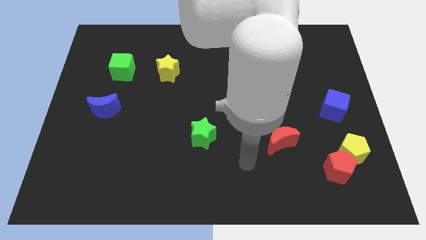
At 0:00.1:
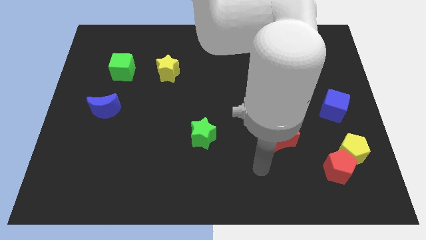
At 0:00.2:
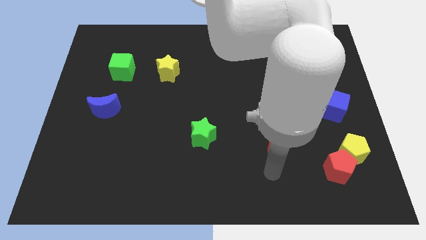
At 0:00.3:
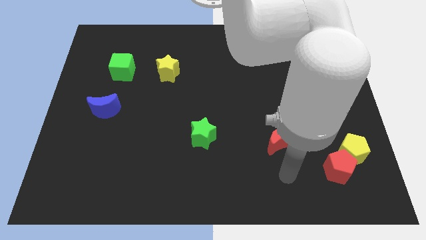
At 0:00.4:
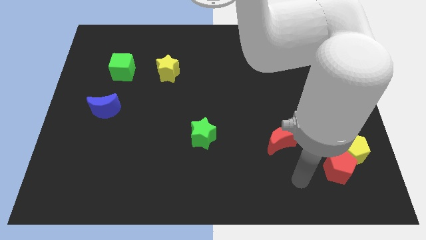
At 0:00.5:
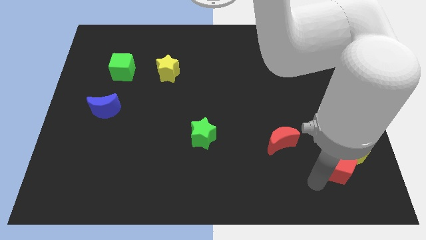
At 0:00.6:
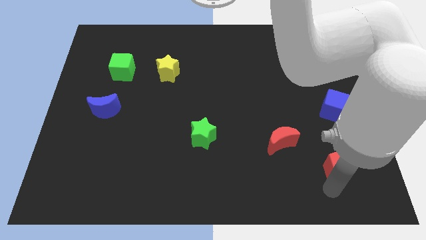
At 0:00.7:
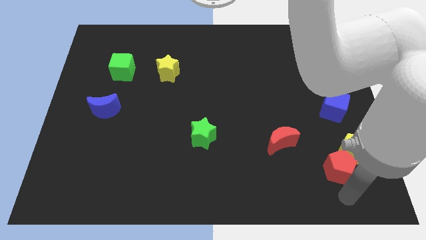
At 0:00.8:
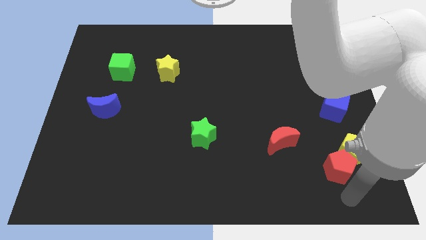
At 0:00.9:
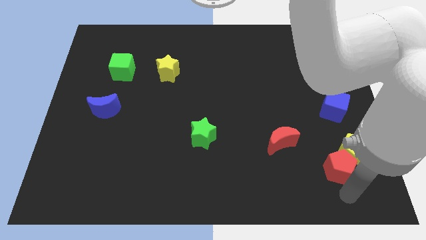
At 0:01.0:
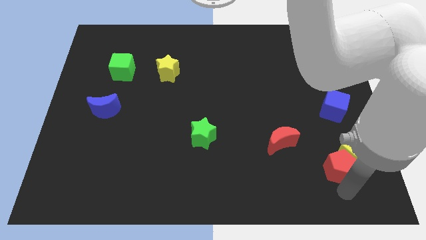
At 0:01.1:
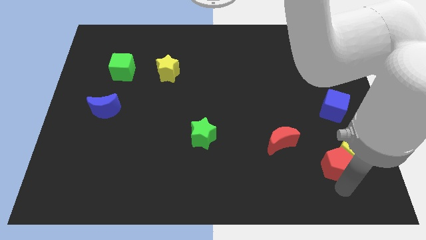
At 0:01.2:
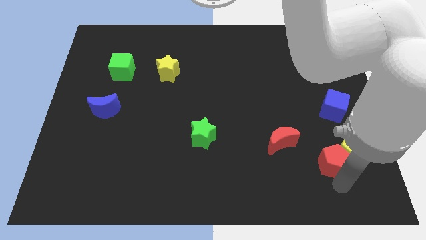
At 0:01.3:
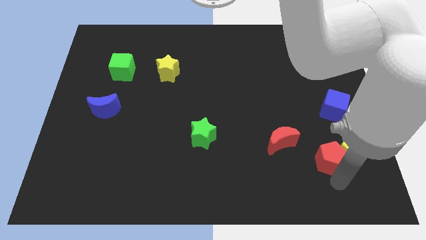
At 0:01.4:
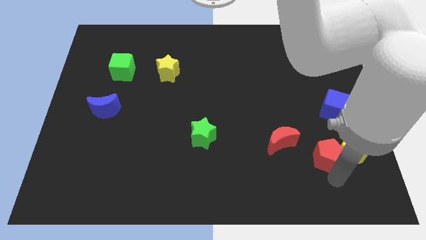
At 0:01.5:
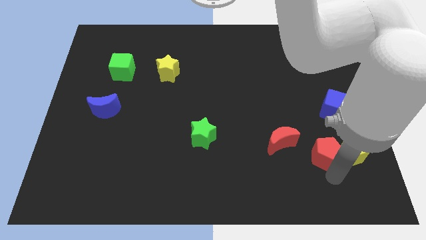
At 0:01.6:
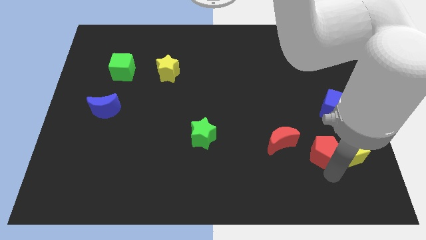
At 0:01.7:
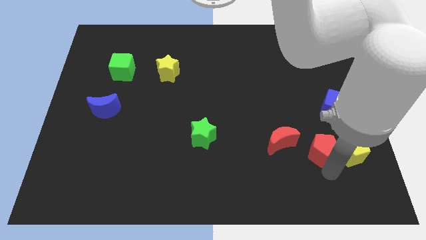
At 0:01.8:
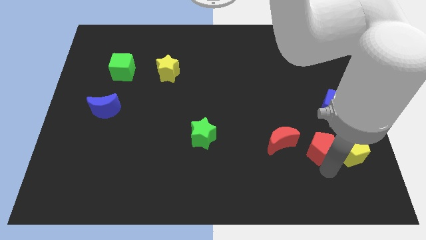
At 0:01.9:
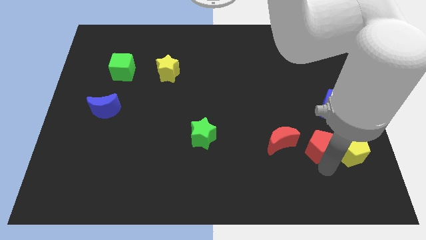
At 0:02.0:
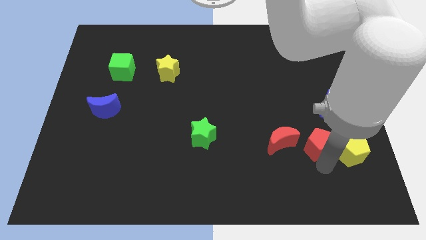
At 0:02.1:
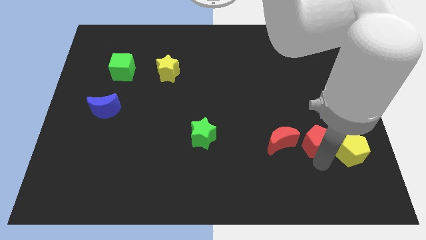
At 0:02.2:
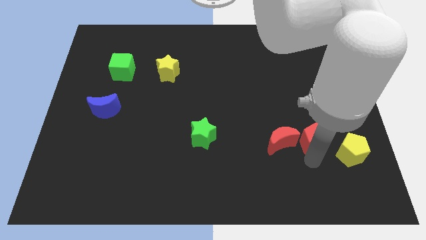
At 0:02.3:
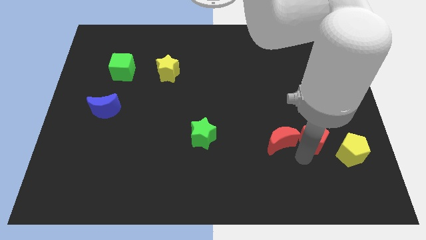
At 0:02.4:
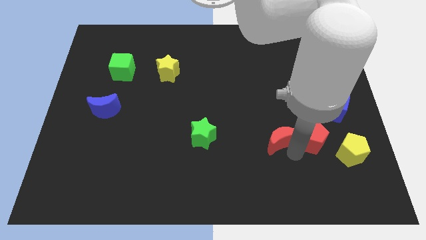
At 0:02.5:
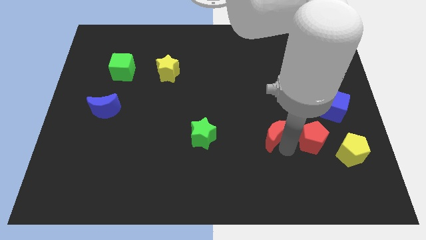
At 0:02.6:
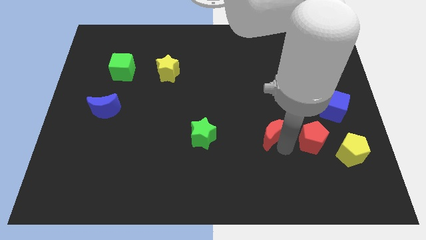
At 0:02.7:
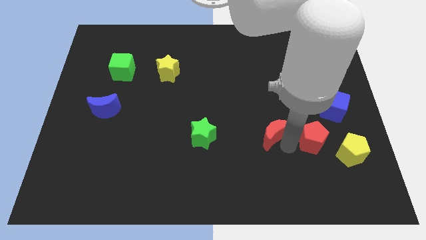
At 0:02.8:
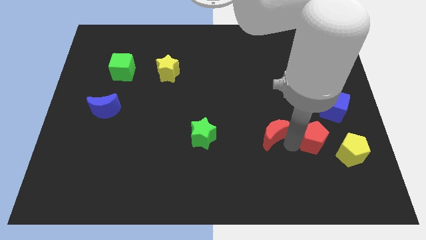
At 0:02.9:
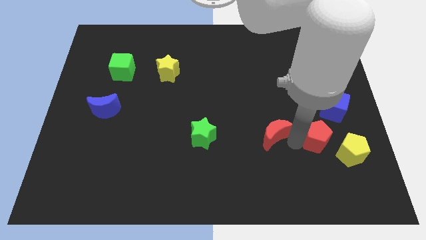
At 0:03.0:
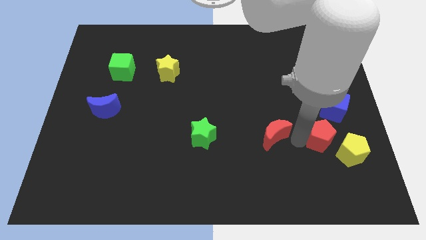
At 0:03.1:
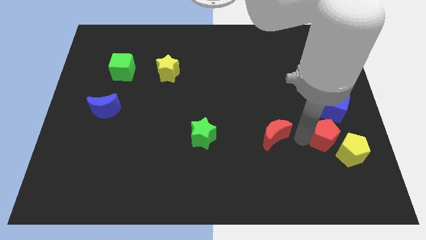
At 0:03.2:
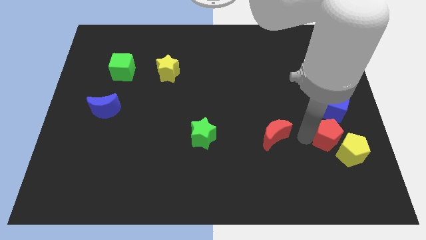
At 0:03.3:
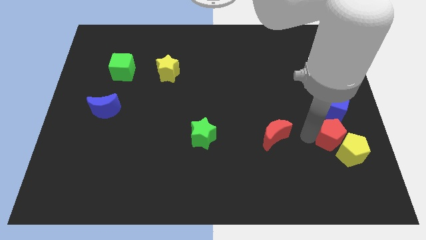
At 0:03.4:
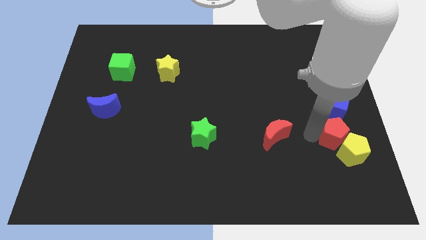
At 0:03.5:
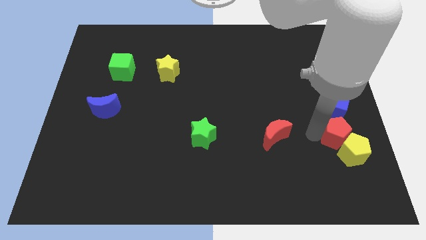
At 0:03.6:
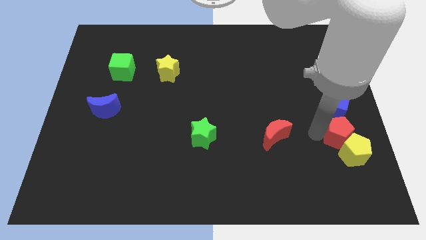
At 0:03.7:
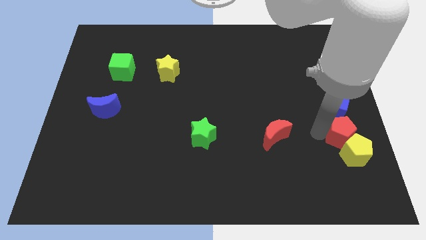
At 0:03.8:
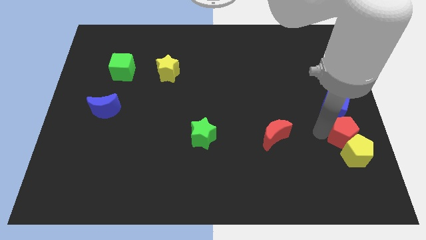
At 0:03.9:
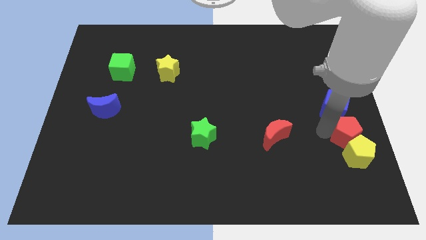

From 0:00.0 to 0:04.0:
move the red pentagon to the right side

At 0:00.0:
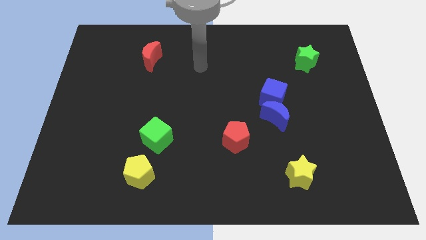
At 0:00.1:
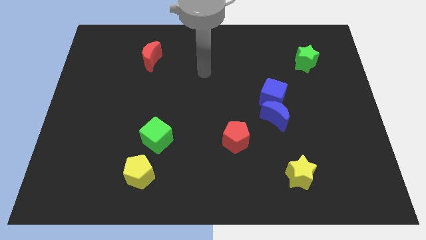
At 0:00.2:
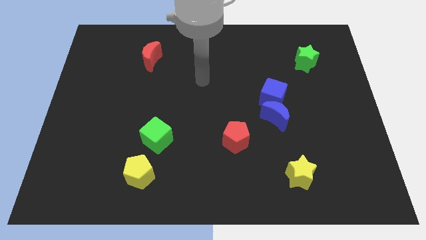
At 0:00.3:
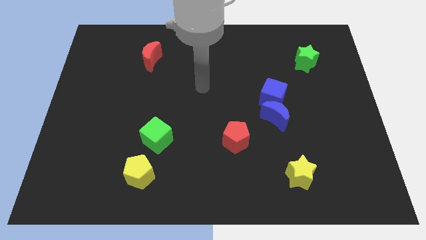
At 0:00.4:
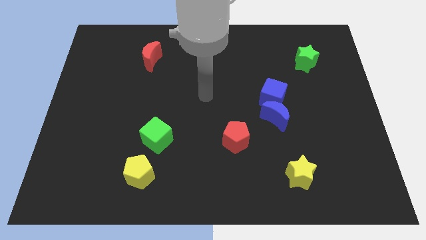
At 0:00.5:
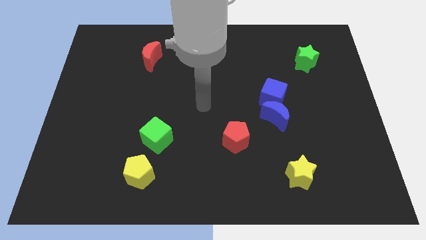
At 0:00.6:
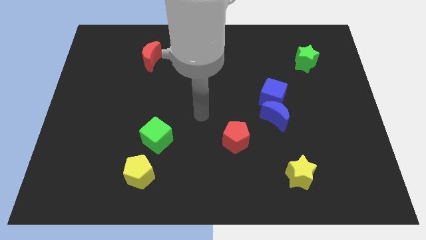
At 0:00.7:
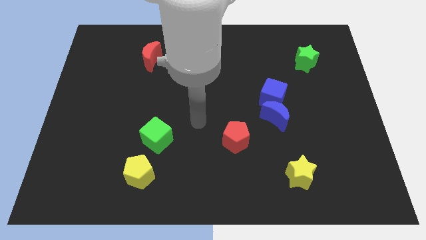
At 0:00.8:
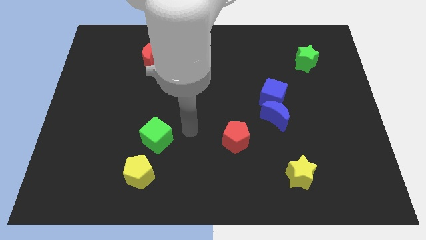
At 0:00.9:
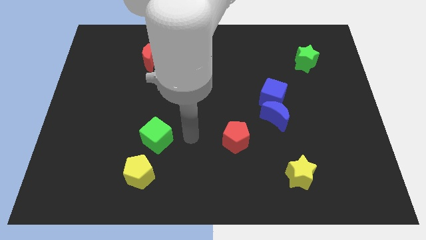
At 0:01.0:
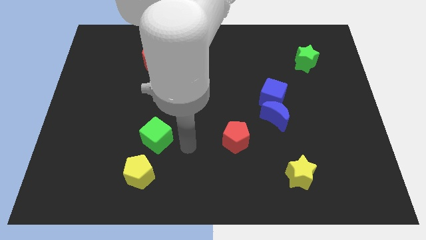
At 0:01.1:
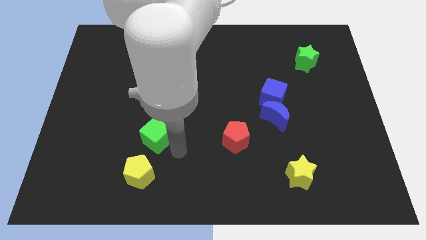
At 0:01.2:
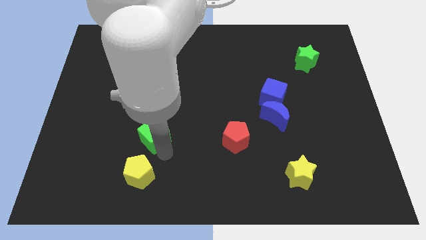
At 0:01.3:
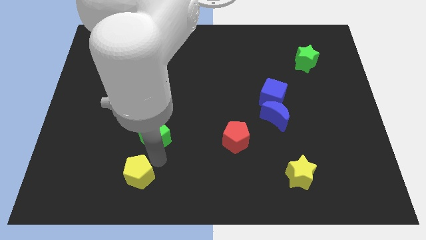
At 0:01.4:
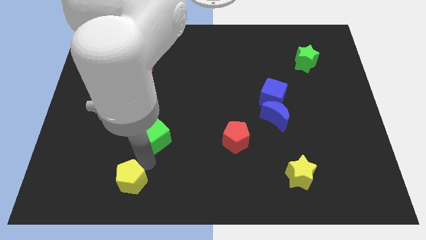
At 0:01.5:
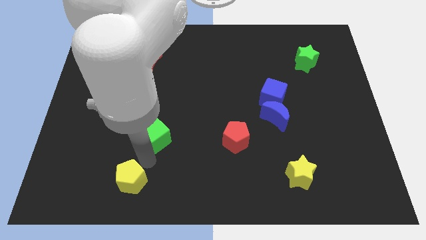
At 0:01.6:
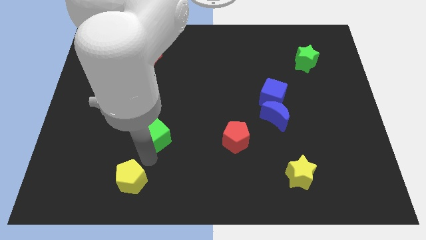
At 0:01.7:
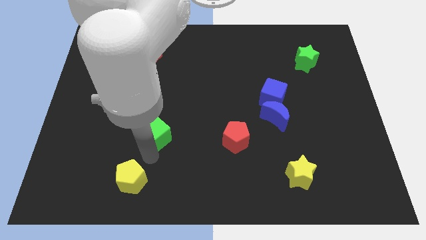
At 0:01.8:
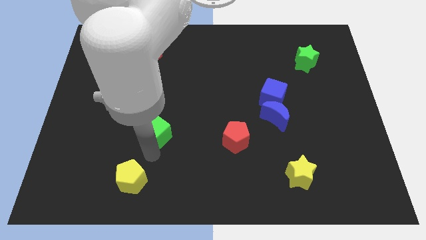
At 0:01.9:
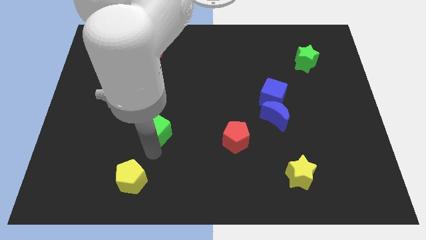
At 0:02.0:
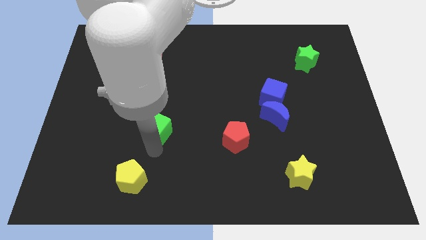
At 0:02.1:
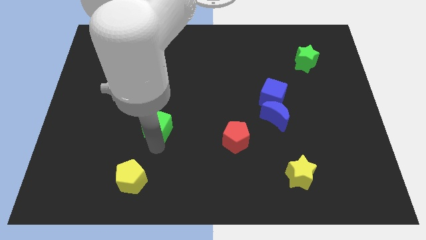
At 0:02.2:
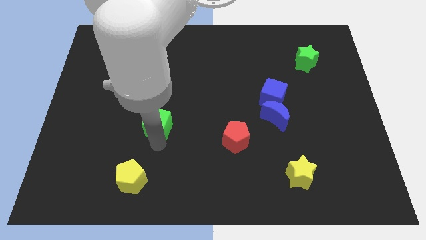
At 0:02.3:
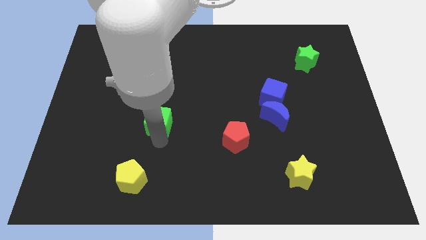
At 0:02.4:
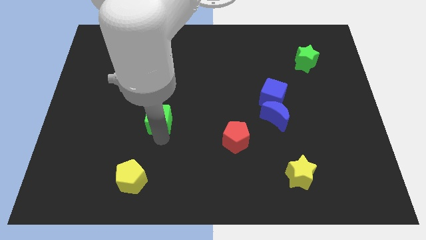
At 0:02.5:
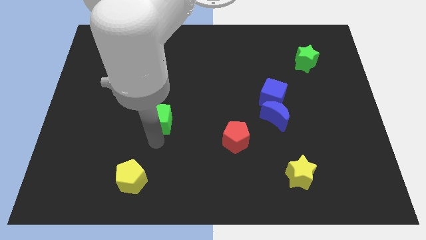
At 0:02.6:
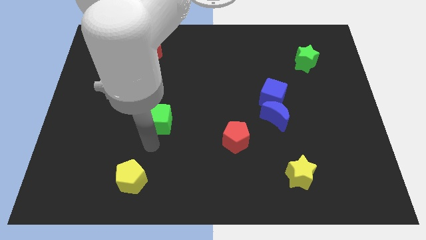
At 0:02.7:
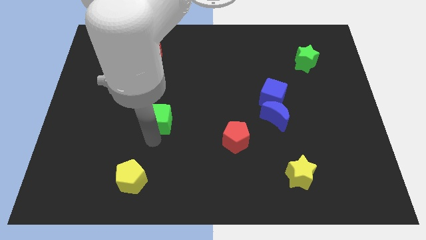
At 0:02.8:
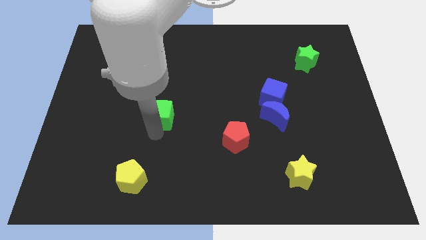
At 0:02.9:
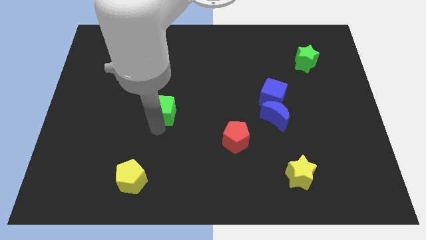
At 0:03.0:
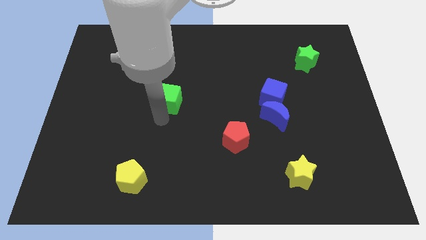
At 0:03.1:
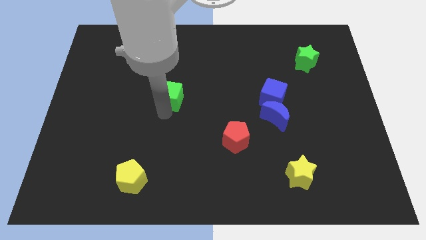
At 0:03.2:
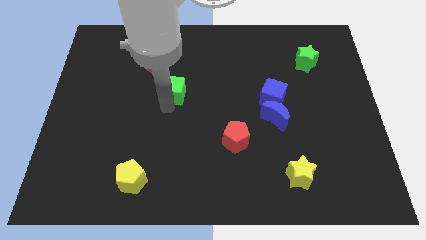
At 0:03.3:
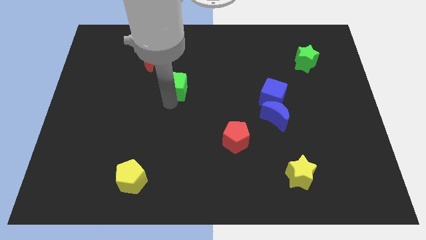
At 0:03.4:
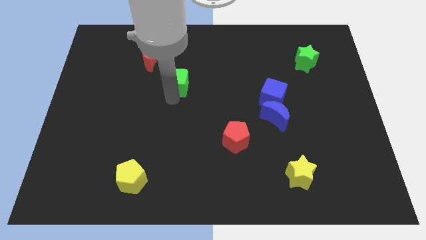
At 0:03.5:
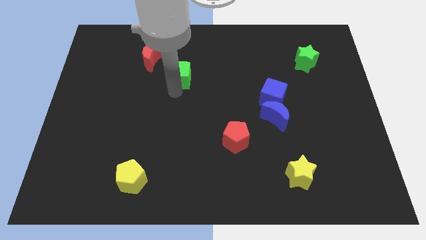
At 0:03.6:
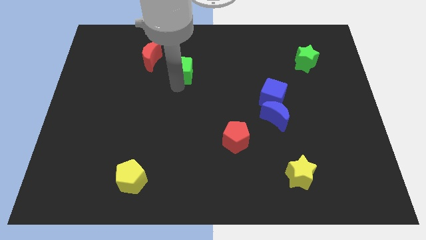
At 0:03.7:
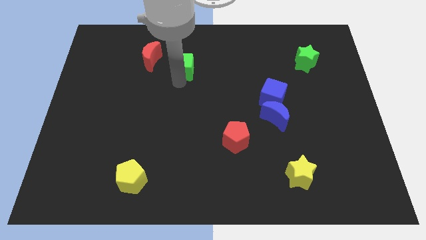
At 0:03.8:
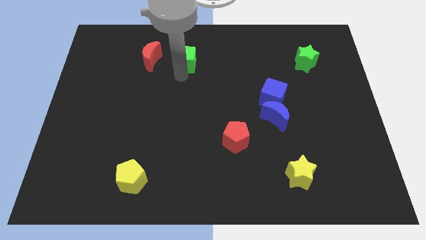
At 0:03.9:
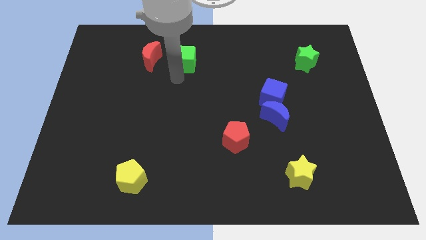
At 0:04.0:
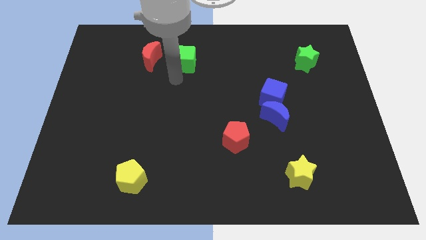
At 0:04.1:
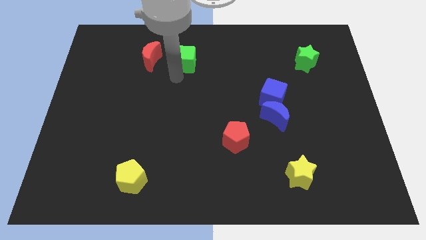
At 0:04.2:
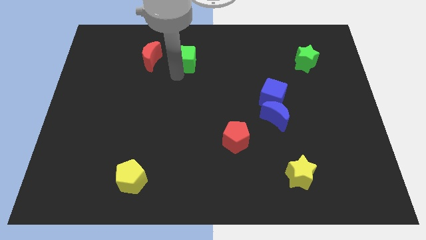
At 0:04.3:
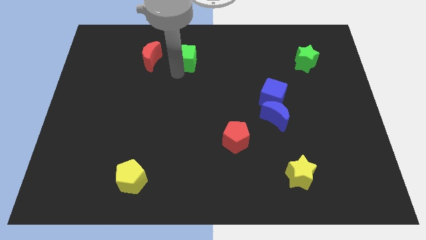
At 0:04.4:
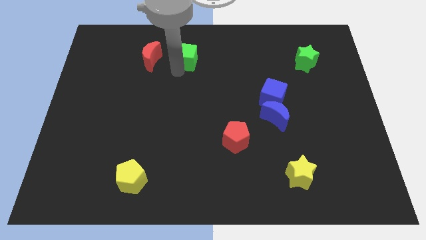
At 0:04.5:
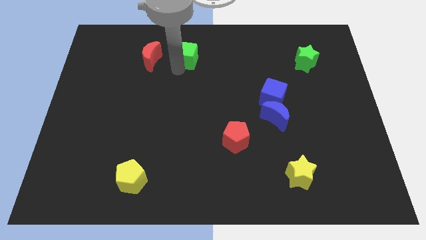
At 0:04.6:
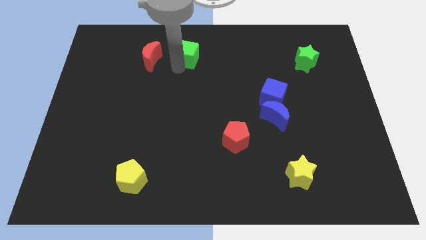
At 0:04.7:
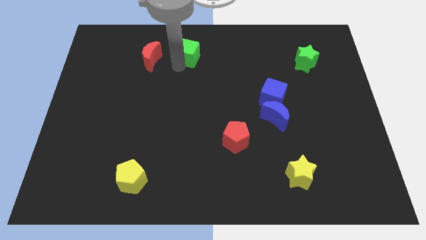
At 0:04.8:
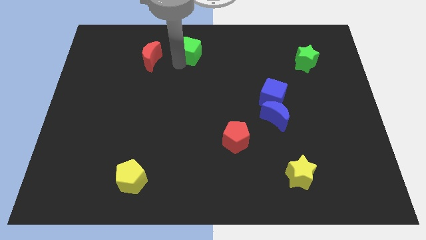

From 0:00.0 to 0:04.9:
slide the green cube to the top side
